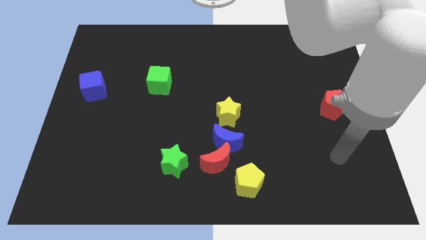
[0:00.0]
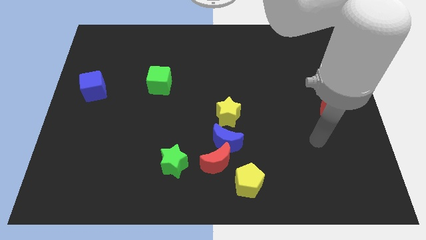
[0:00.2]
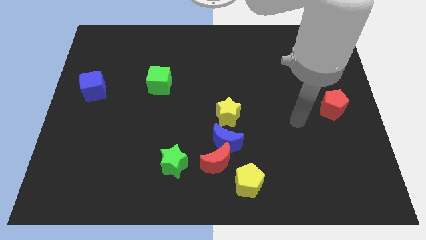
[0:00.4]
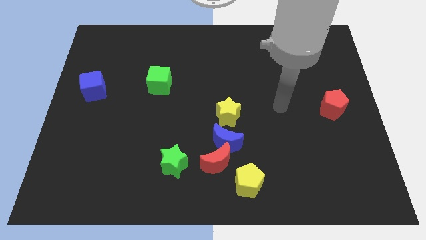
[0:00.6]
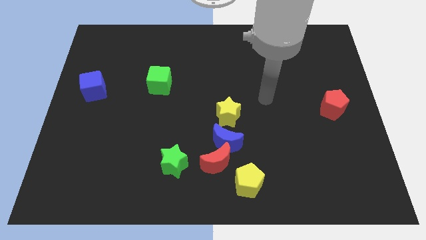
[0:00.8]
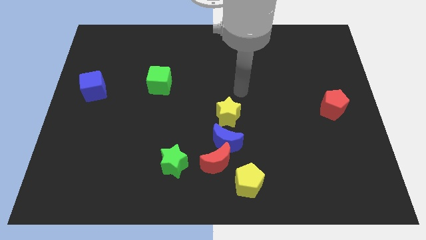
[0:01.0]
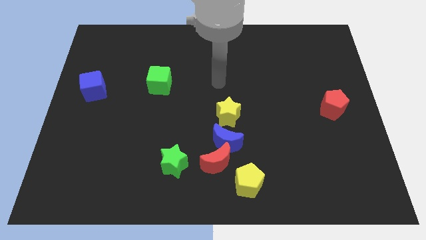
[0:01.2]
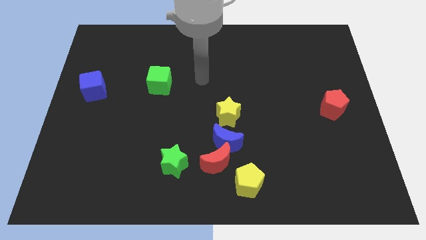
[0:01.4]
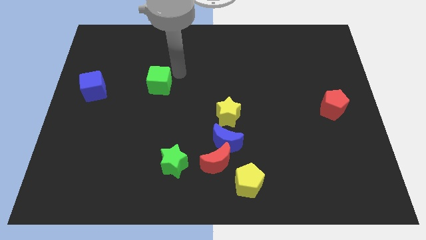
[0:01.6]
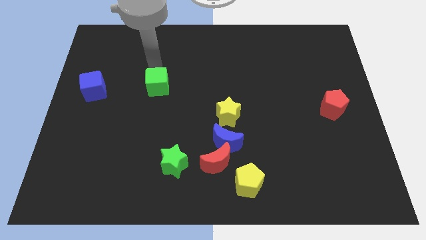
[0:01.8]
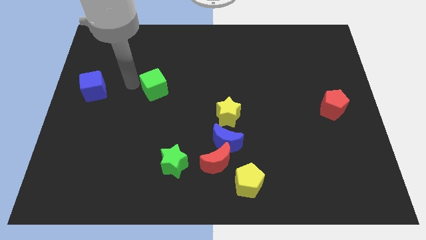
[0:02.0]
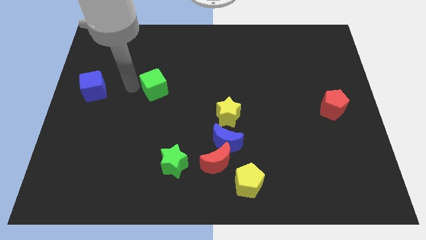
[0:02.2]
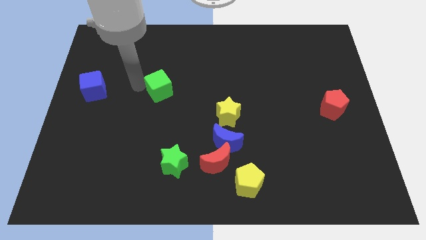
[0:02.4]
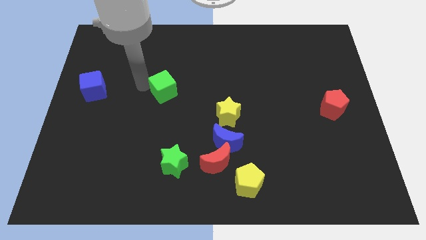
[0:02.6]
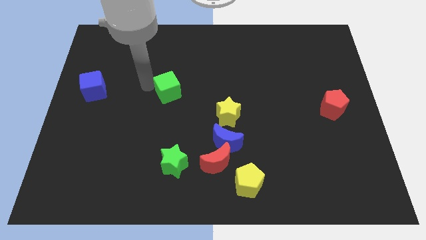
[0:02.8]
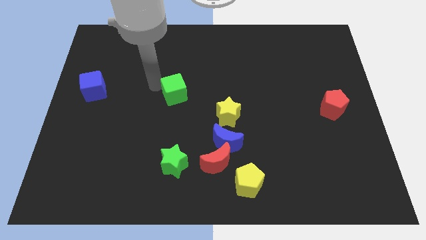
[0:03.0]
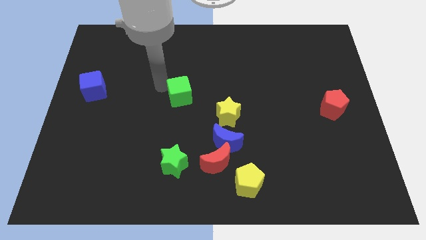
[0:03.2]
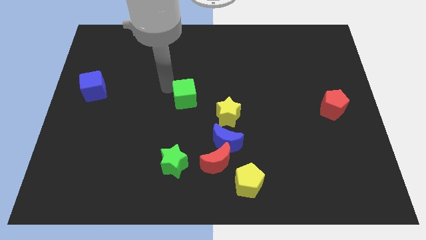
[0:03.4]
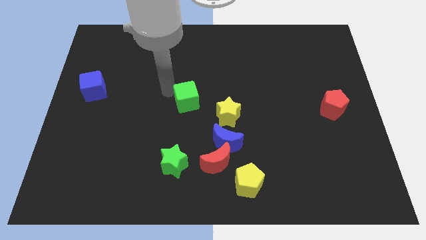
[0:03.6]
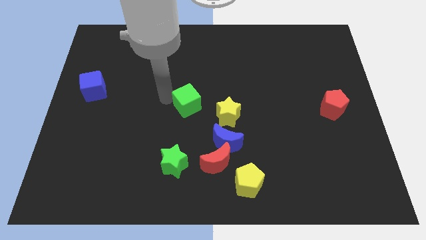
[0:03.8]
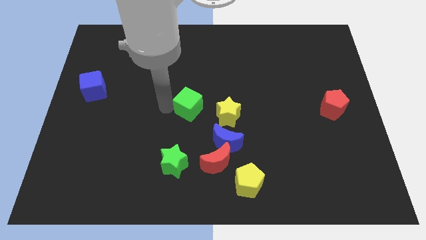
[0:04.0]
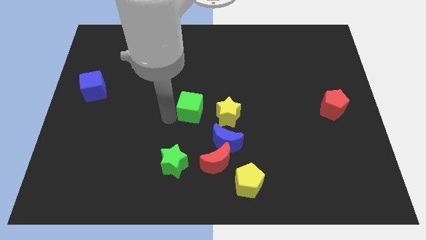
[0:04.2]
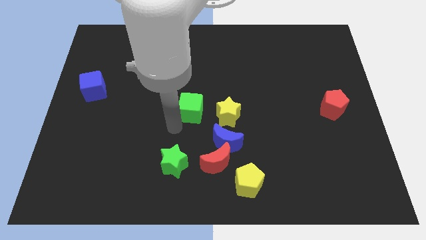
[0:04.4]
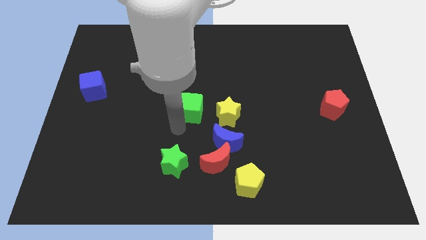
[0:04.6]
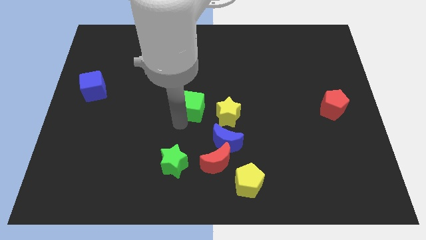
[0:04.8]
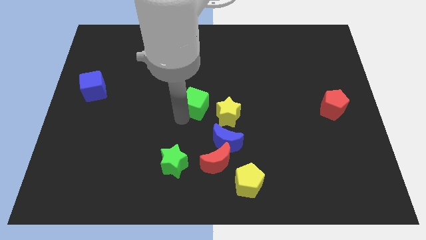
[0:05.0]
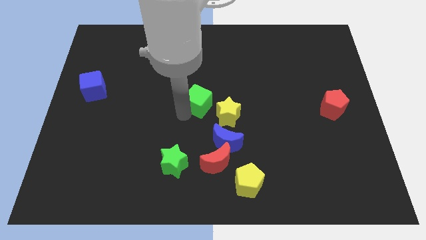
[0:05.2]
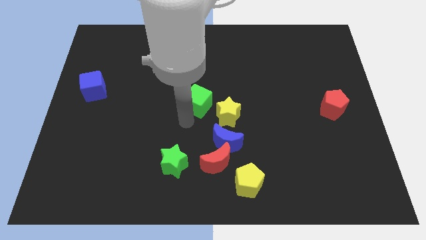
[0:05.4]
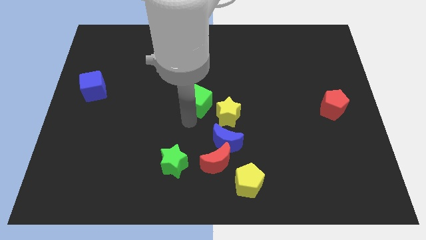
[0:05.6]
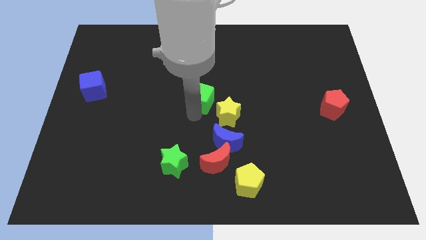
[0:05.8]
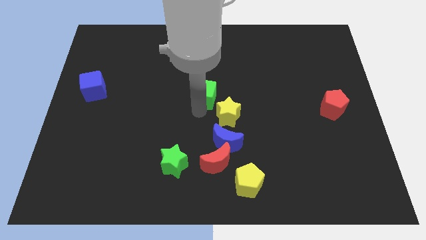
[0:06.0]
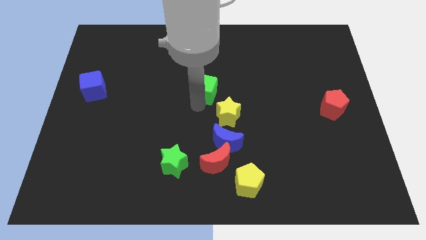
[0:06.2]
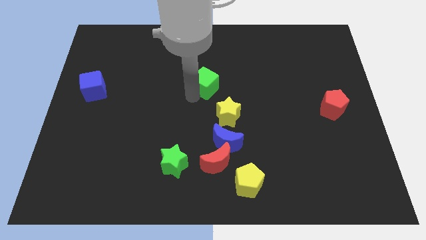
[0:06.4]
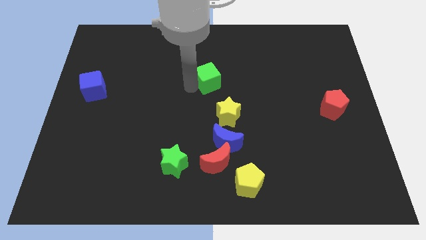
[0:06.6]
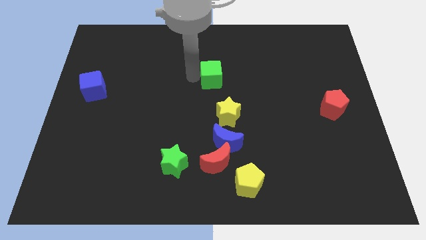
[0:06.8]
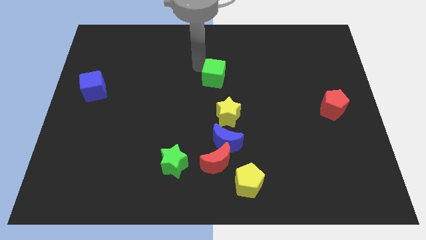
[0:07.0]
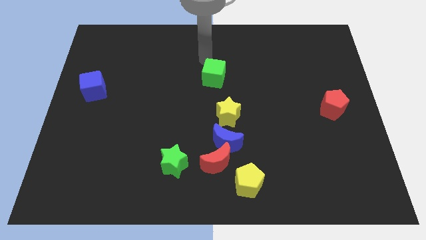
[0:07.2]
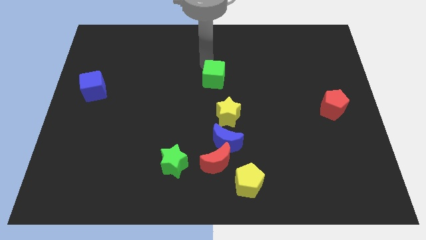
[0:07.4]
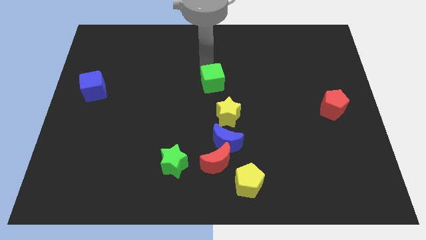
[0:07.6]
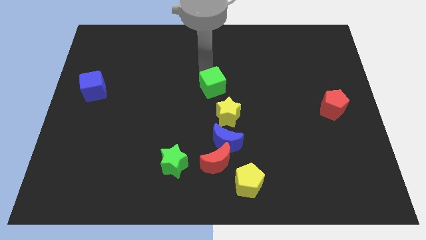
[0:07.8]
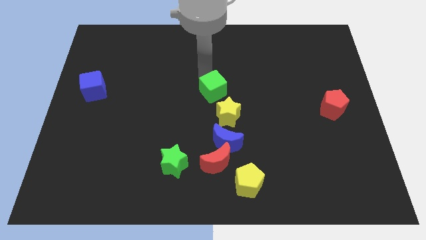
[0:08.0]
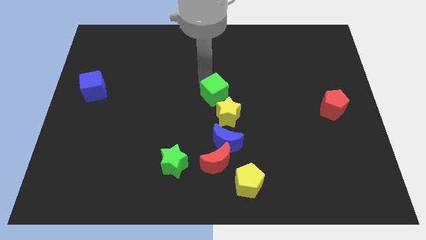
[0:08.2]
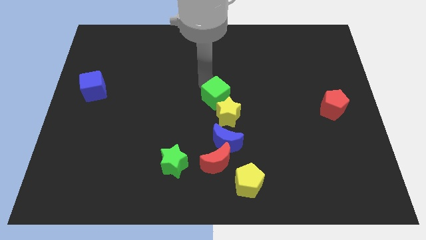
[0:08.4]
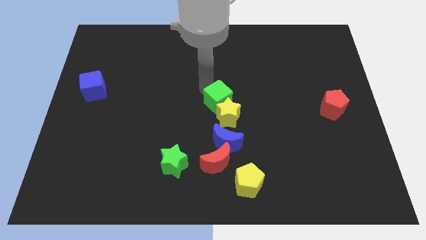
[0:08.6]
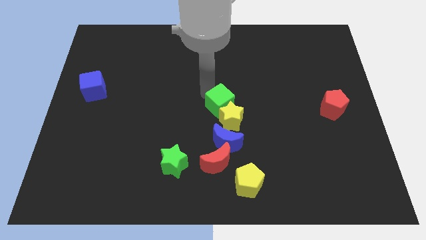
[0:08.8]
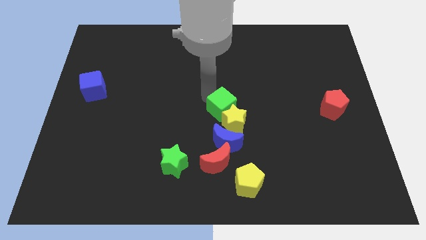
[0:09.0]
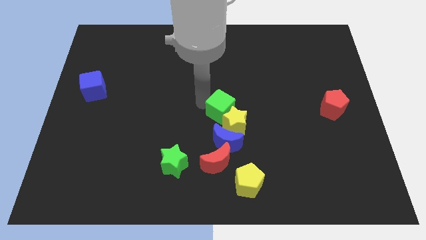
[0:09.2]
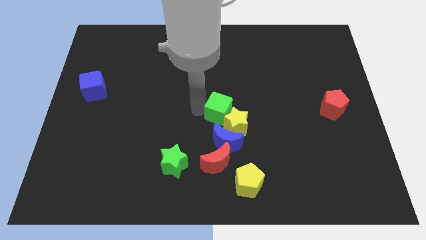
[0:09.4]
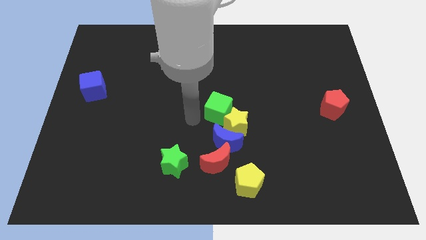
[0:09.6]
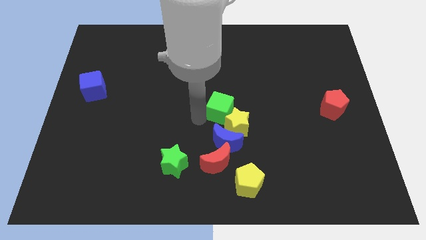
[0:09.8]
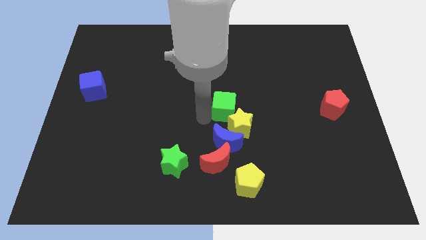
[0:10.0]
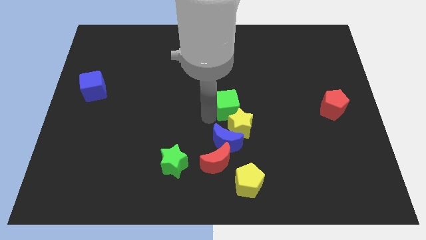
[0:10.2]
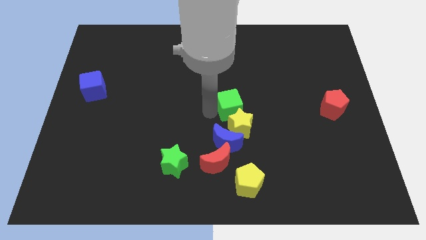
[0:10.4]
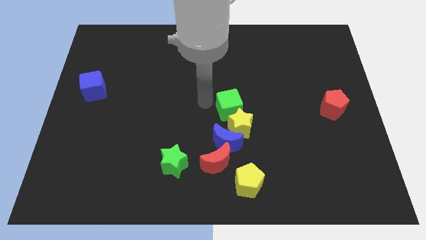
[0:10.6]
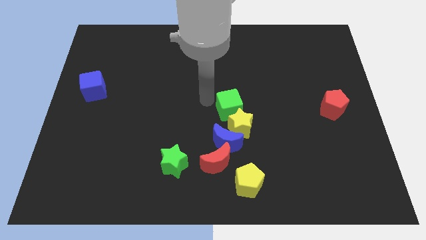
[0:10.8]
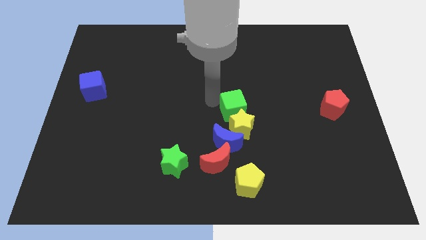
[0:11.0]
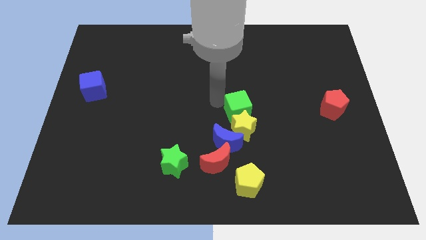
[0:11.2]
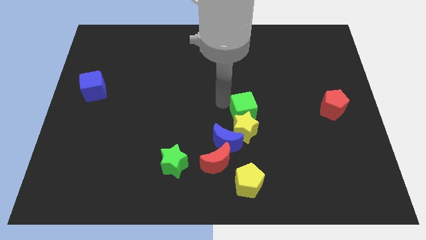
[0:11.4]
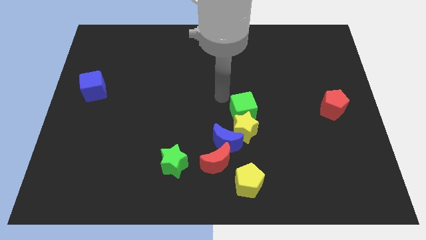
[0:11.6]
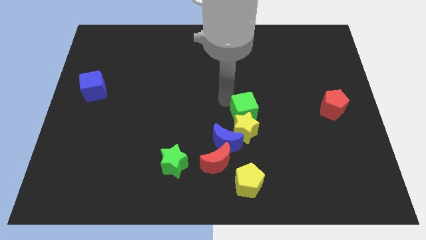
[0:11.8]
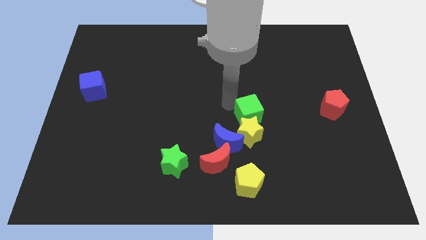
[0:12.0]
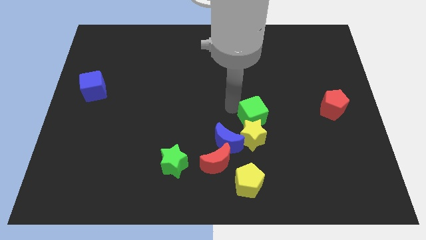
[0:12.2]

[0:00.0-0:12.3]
move the green cube down and to the right diagonally

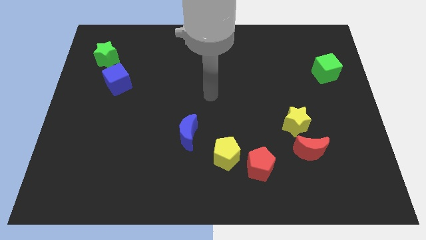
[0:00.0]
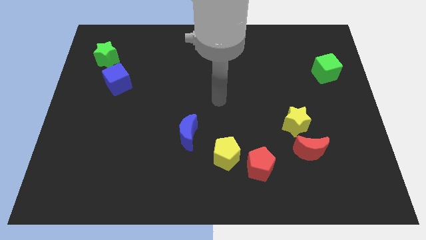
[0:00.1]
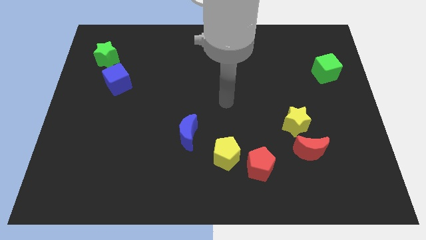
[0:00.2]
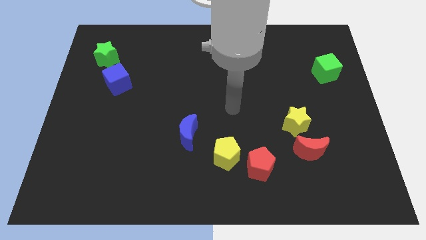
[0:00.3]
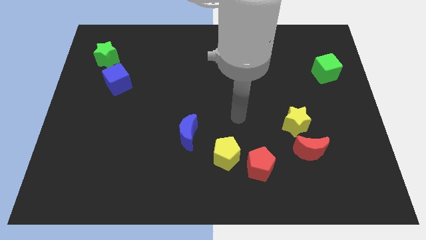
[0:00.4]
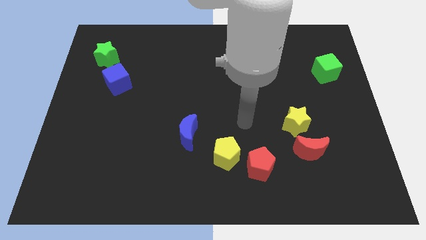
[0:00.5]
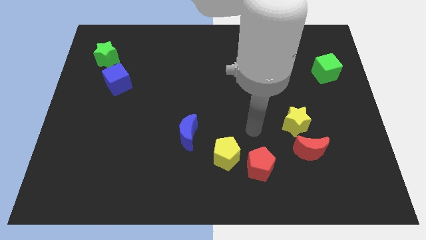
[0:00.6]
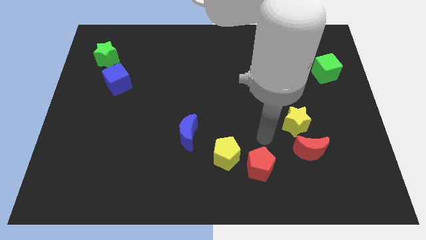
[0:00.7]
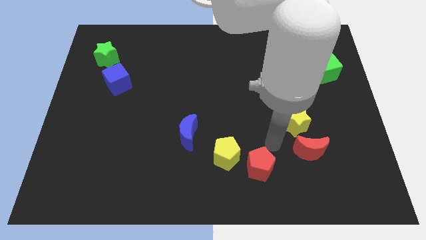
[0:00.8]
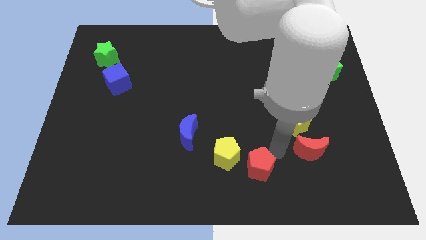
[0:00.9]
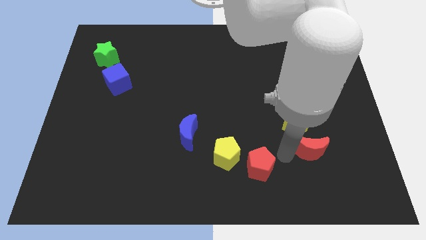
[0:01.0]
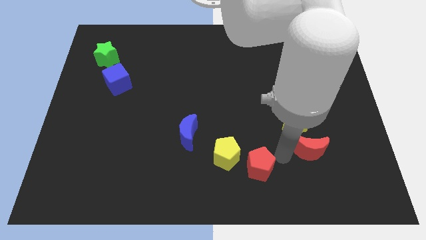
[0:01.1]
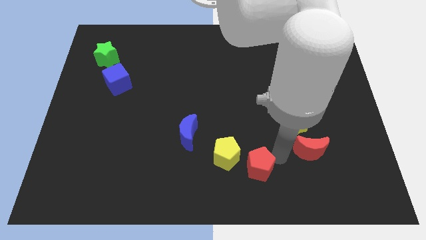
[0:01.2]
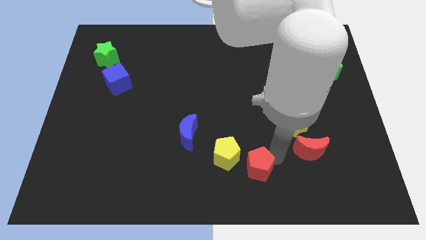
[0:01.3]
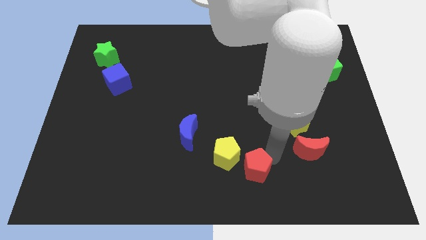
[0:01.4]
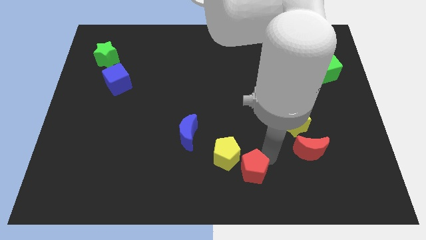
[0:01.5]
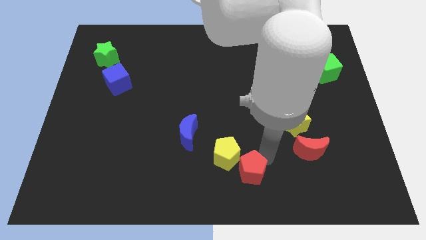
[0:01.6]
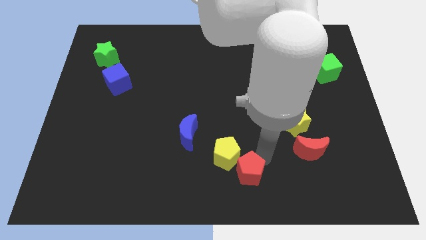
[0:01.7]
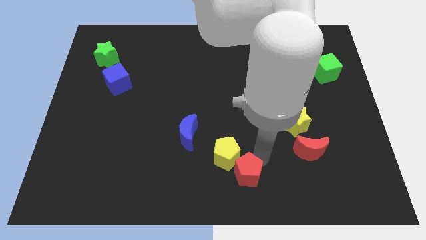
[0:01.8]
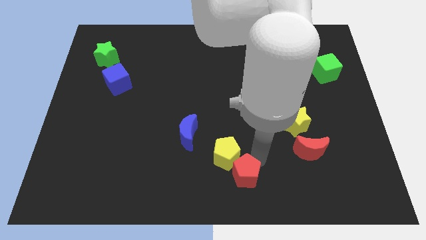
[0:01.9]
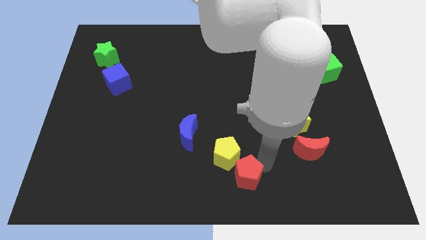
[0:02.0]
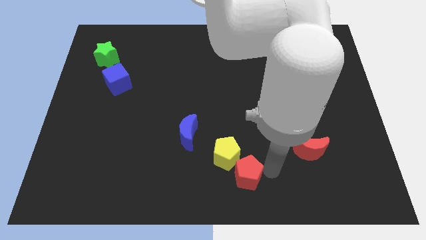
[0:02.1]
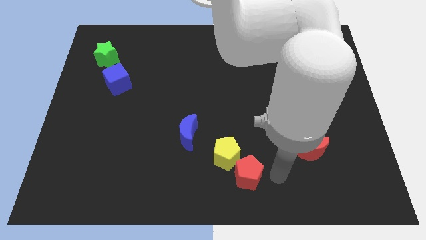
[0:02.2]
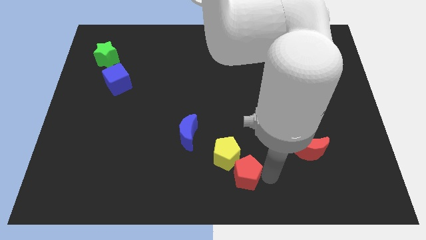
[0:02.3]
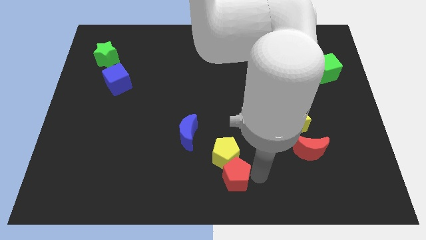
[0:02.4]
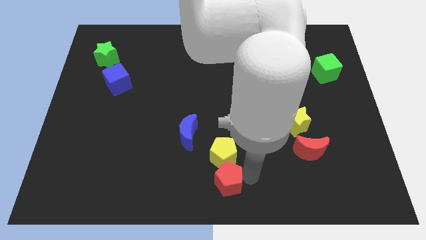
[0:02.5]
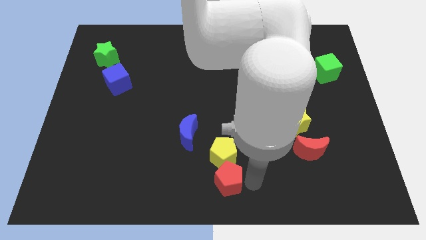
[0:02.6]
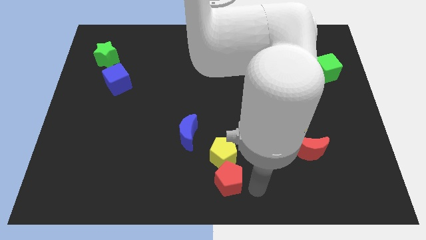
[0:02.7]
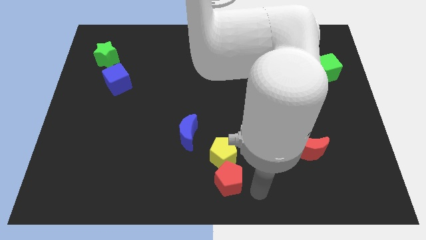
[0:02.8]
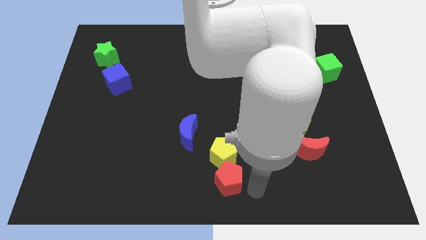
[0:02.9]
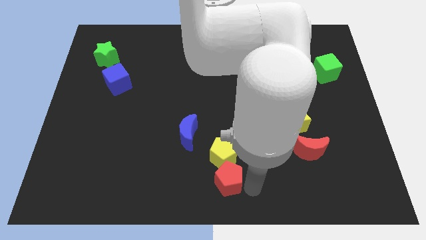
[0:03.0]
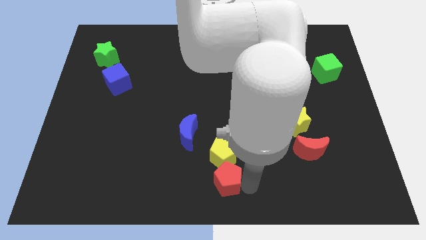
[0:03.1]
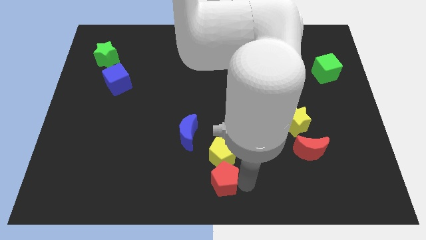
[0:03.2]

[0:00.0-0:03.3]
slightly push the red pentagon to the left
